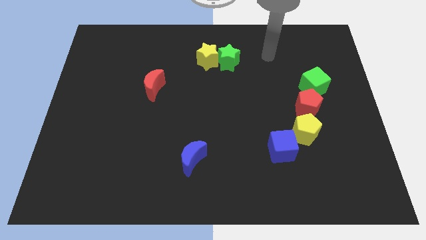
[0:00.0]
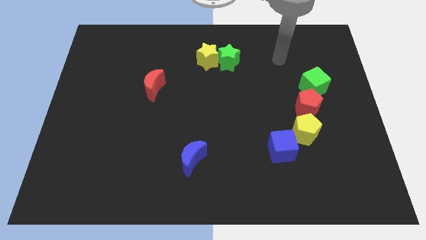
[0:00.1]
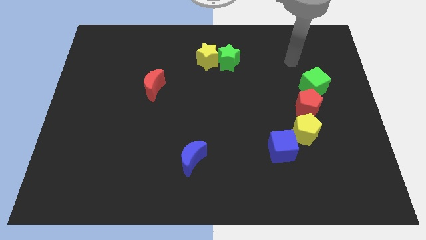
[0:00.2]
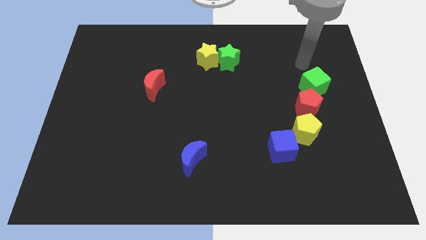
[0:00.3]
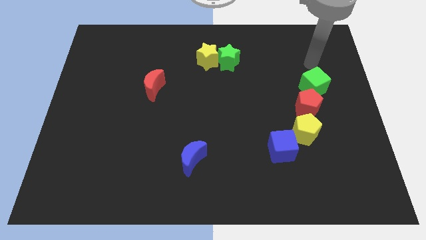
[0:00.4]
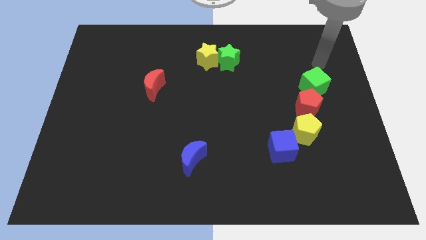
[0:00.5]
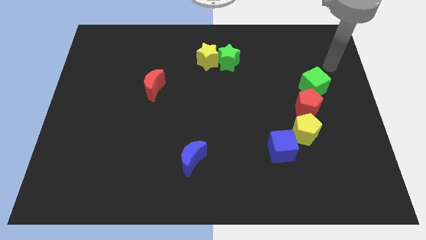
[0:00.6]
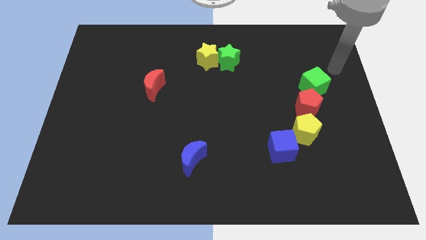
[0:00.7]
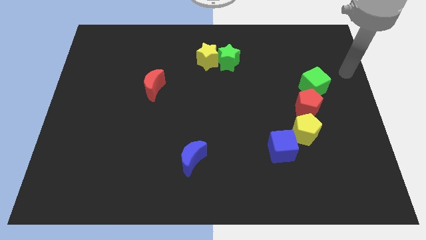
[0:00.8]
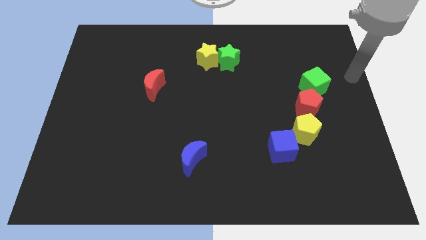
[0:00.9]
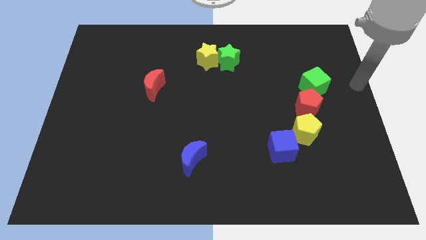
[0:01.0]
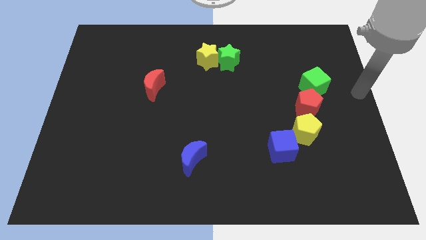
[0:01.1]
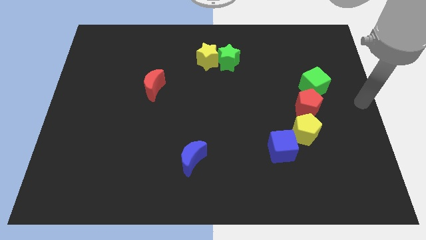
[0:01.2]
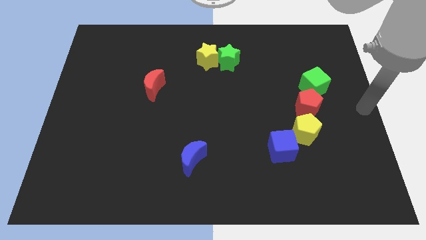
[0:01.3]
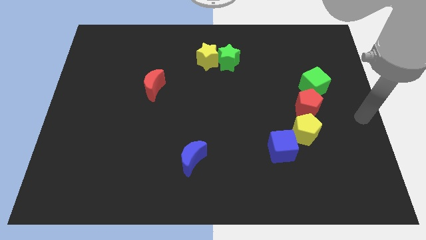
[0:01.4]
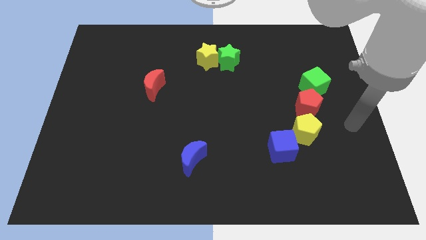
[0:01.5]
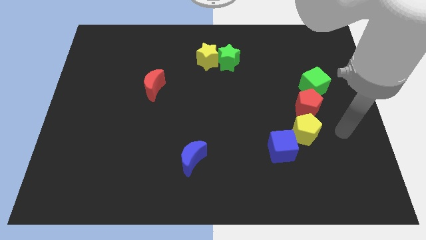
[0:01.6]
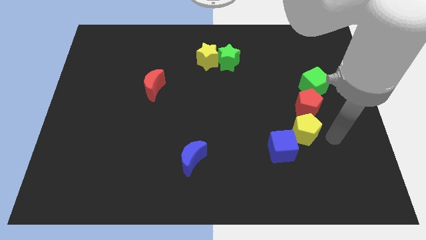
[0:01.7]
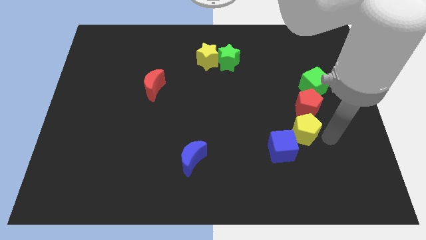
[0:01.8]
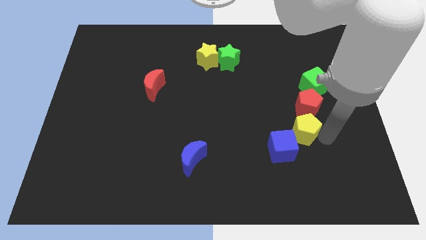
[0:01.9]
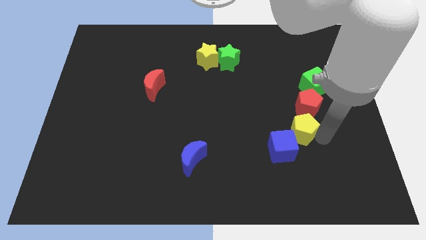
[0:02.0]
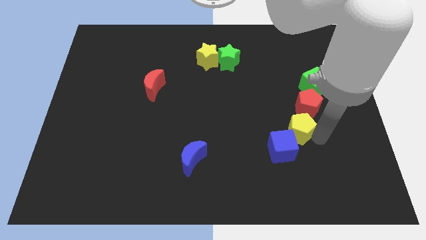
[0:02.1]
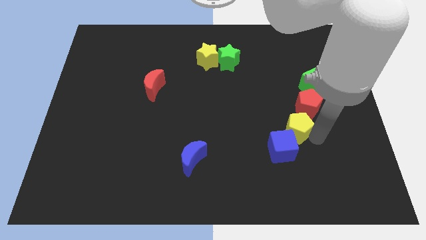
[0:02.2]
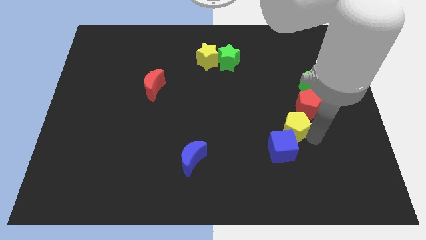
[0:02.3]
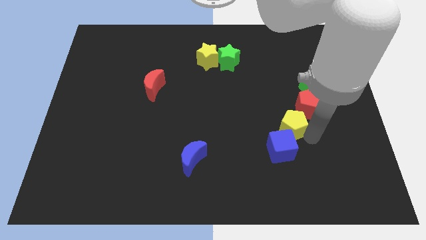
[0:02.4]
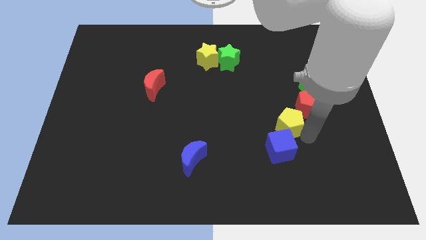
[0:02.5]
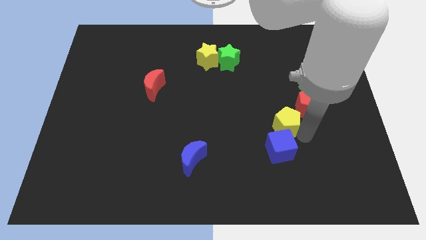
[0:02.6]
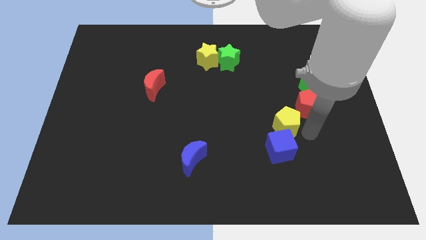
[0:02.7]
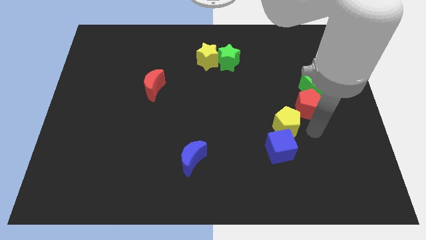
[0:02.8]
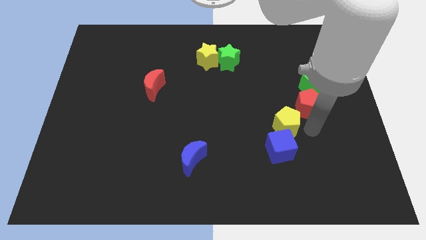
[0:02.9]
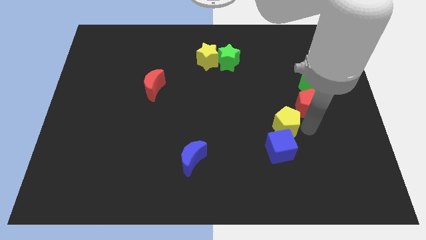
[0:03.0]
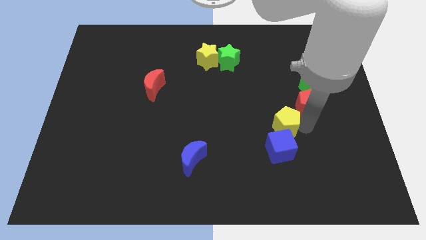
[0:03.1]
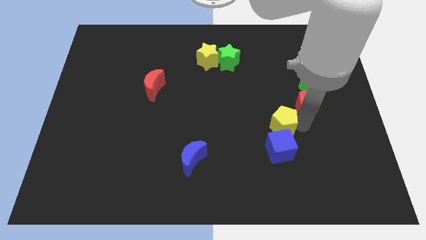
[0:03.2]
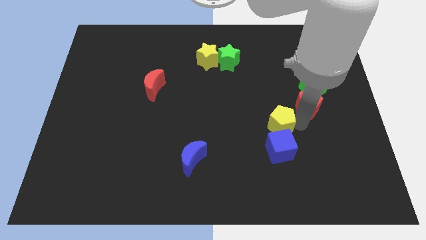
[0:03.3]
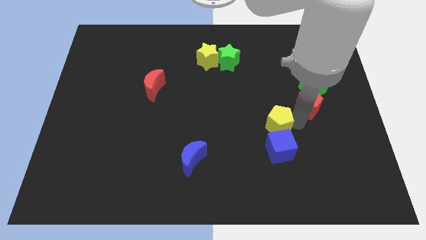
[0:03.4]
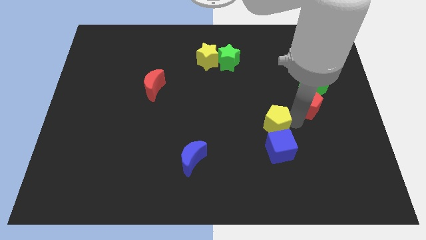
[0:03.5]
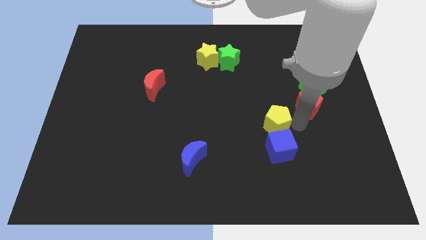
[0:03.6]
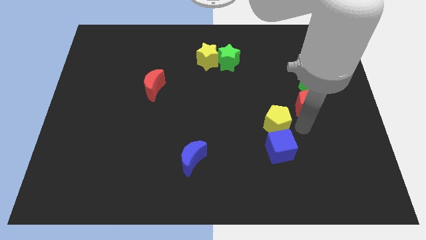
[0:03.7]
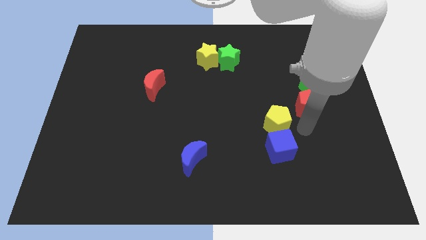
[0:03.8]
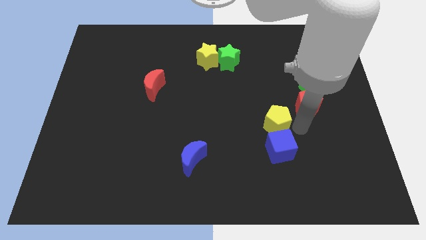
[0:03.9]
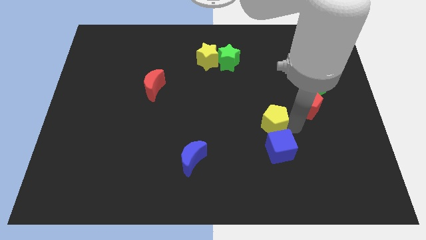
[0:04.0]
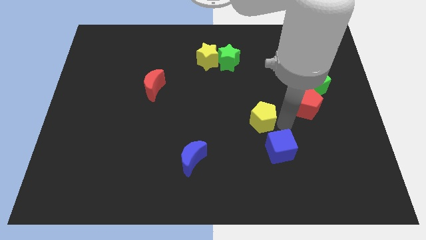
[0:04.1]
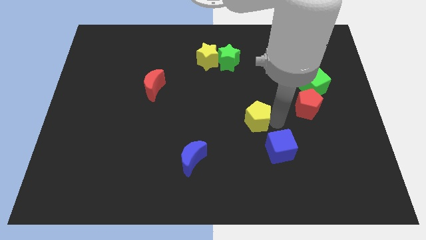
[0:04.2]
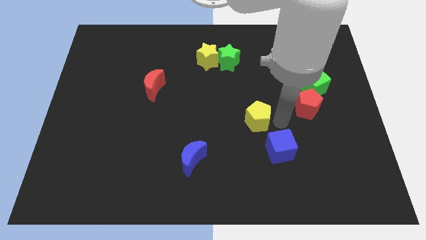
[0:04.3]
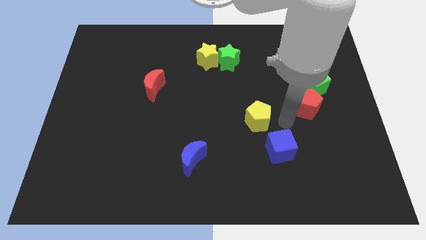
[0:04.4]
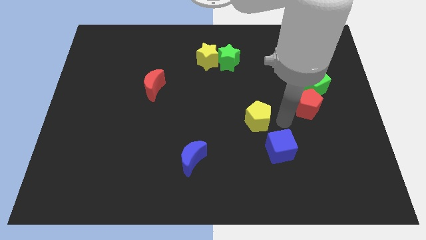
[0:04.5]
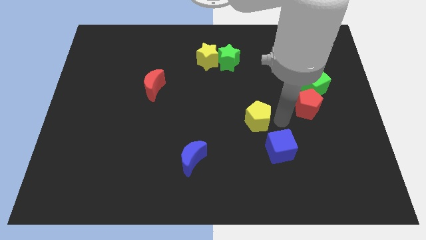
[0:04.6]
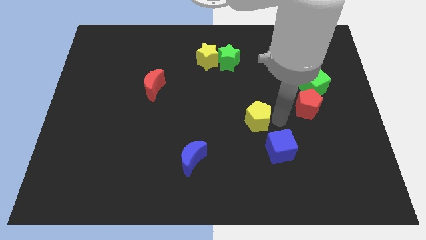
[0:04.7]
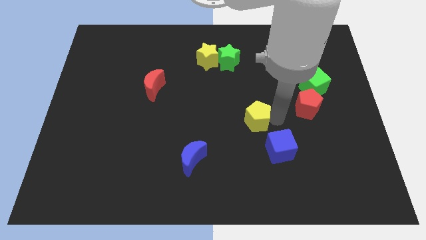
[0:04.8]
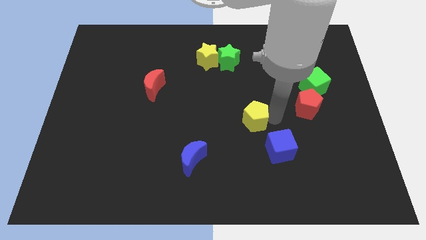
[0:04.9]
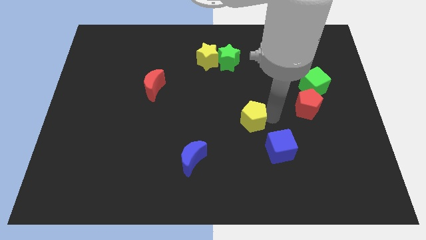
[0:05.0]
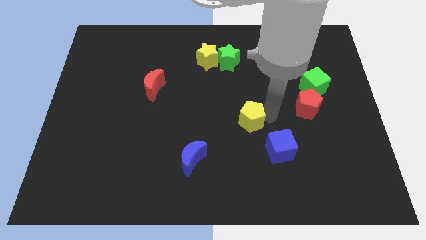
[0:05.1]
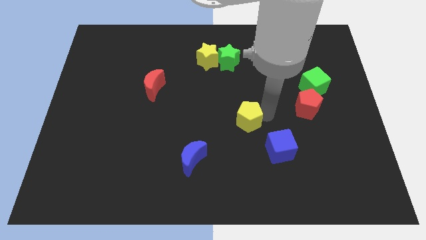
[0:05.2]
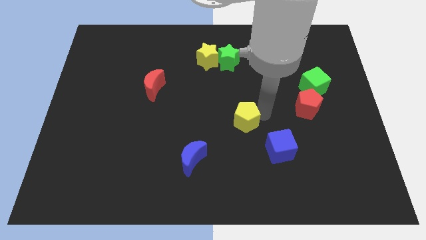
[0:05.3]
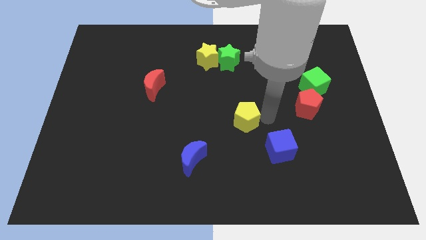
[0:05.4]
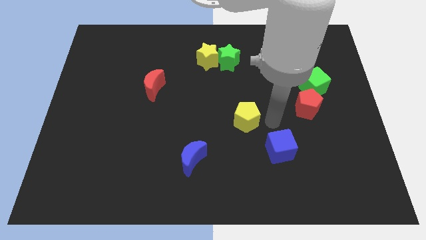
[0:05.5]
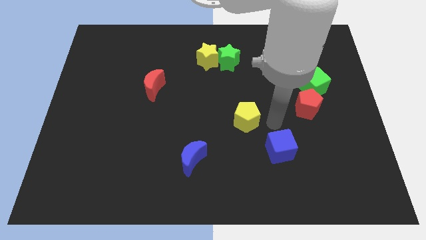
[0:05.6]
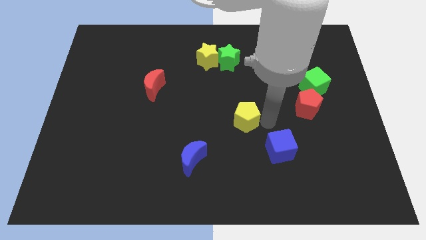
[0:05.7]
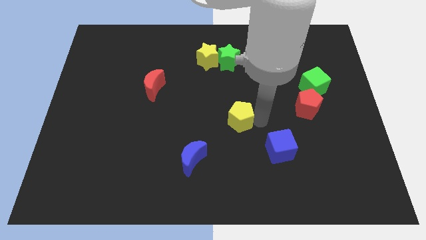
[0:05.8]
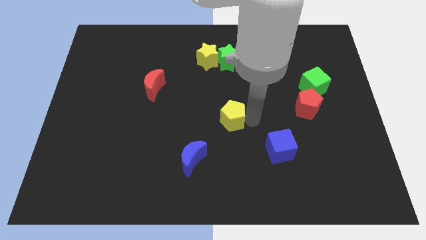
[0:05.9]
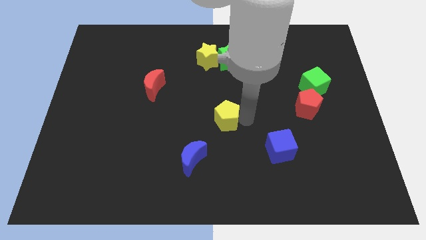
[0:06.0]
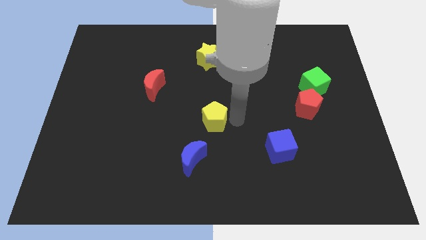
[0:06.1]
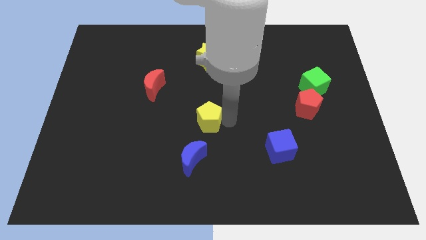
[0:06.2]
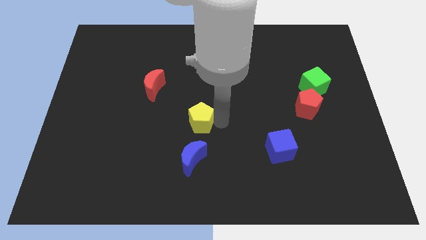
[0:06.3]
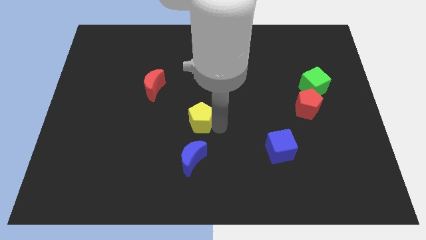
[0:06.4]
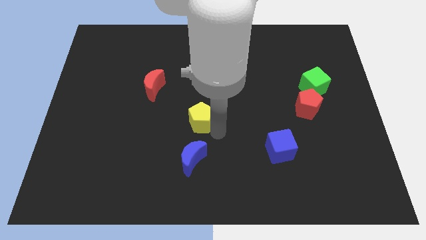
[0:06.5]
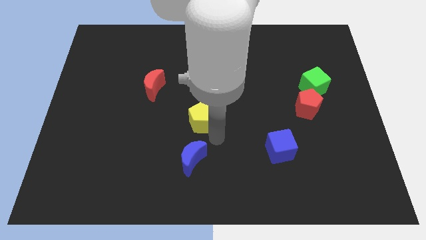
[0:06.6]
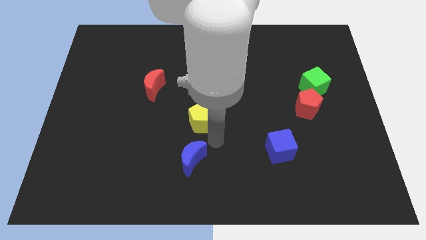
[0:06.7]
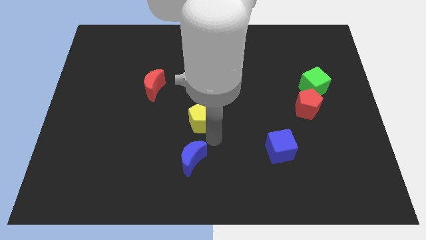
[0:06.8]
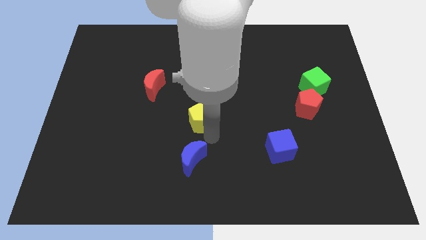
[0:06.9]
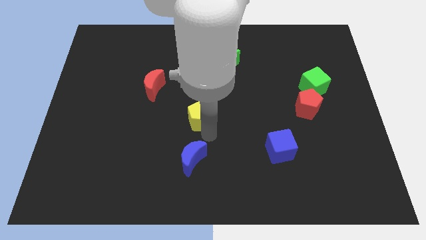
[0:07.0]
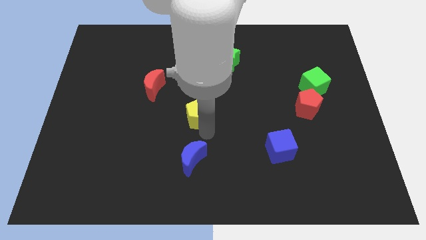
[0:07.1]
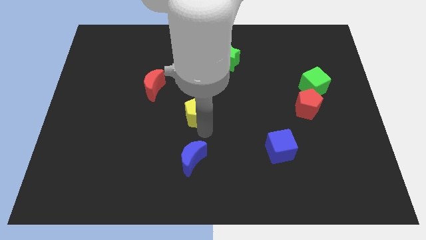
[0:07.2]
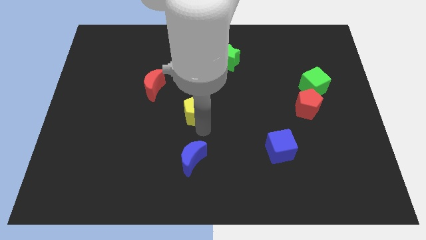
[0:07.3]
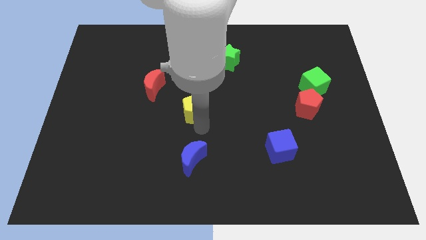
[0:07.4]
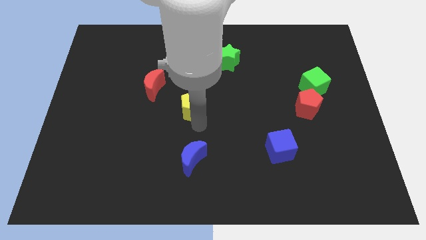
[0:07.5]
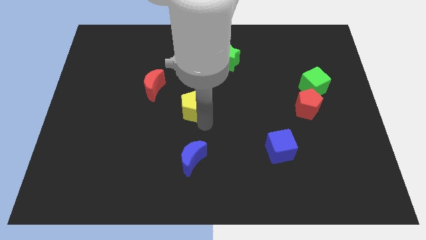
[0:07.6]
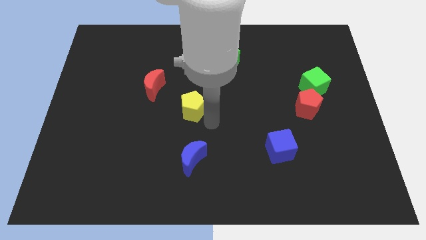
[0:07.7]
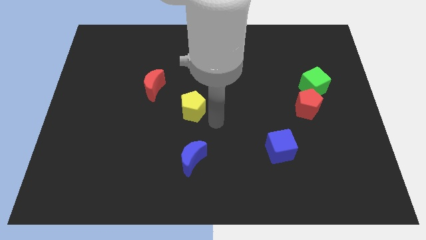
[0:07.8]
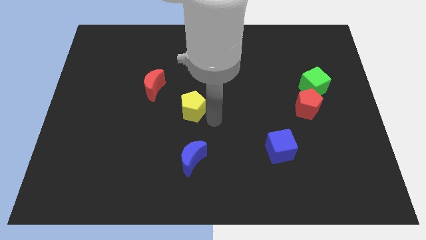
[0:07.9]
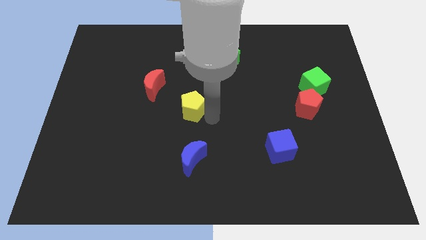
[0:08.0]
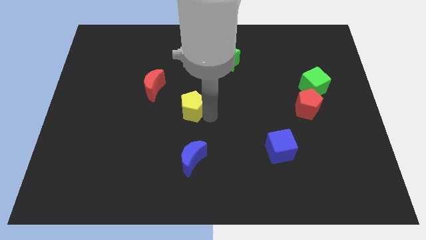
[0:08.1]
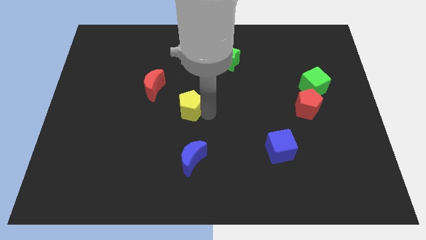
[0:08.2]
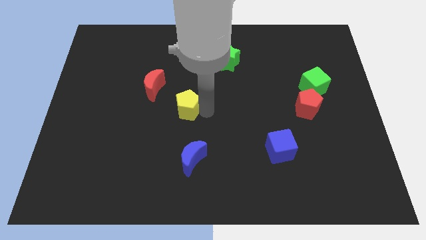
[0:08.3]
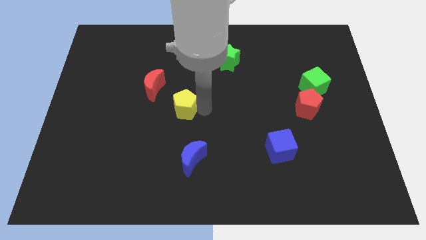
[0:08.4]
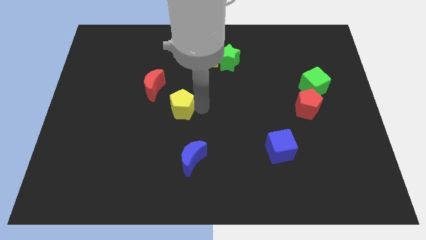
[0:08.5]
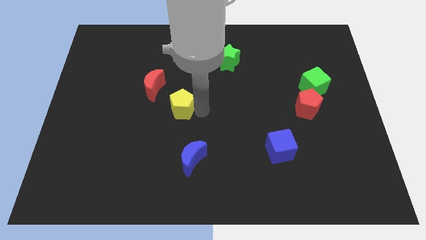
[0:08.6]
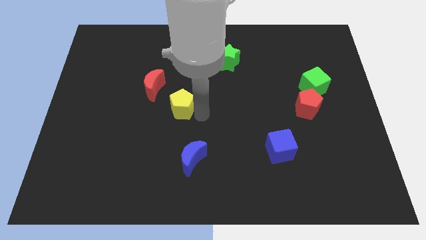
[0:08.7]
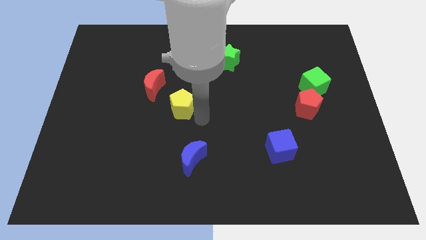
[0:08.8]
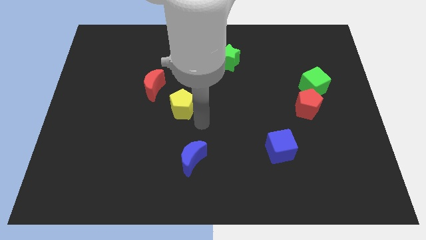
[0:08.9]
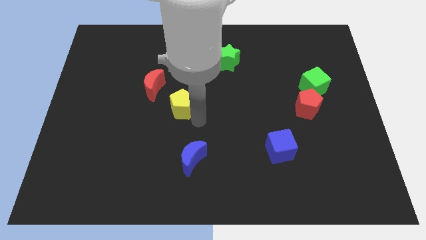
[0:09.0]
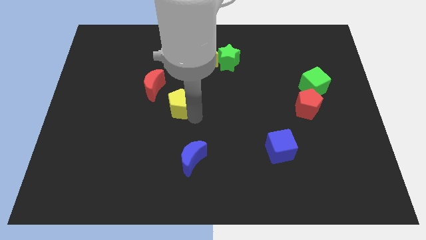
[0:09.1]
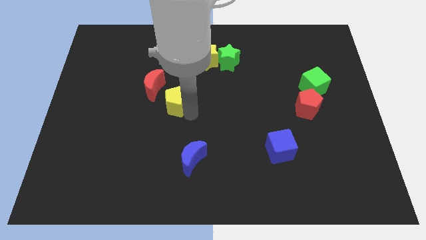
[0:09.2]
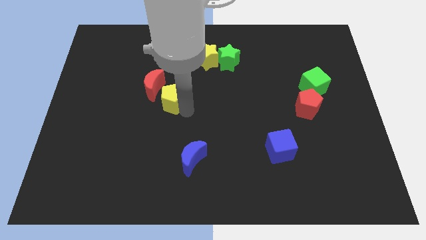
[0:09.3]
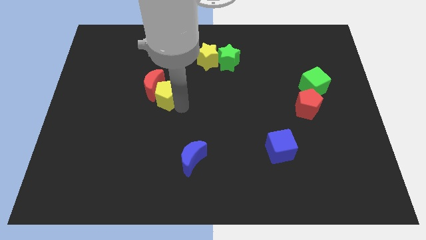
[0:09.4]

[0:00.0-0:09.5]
slide the yellow pentagon close to the red moon
